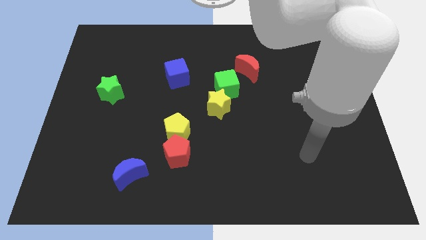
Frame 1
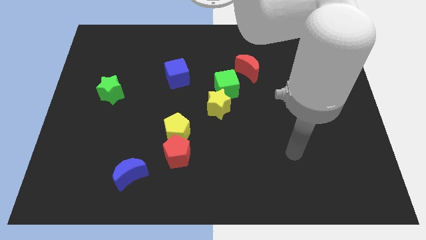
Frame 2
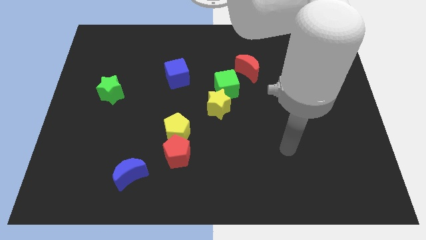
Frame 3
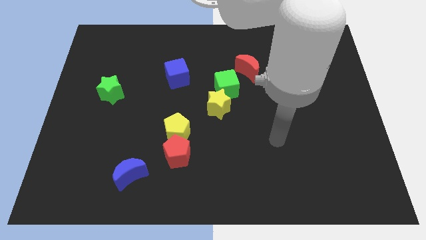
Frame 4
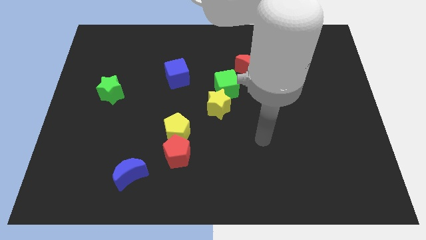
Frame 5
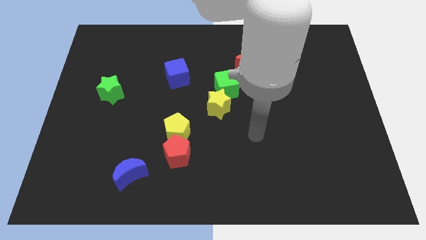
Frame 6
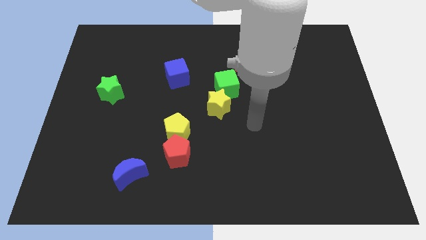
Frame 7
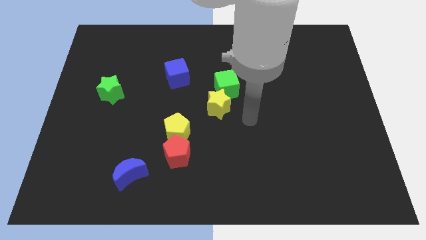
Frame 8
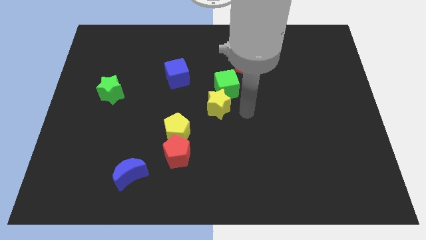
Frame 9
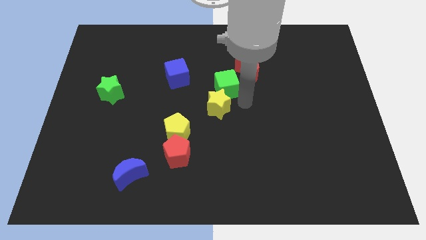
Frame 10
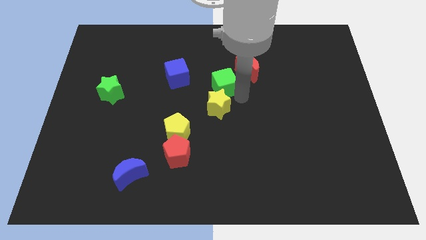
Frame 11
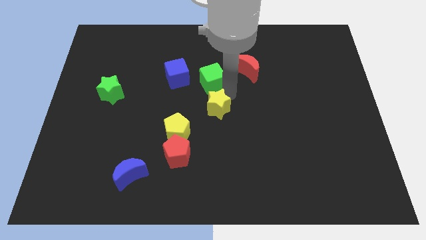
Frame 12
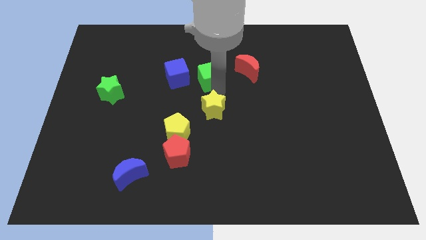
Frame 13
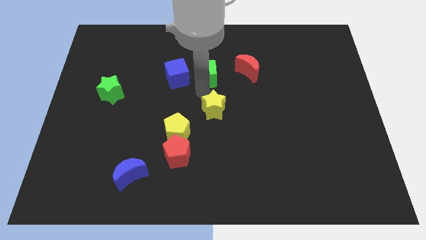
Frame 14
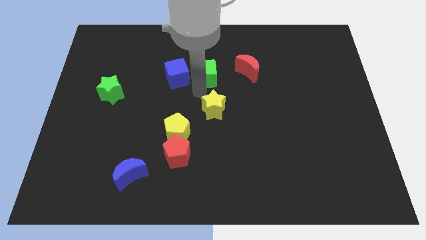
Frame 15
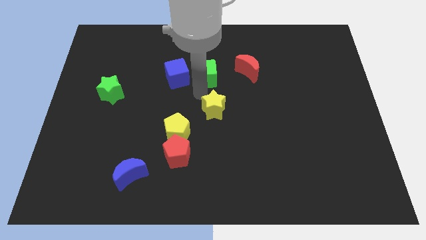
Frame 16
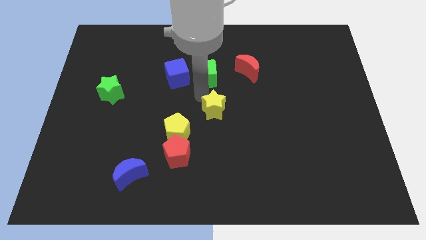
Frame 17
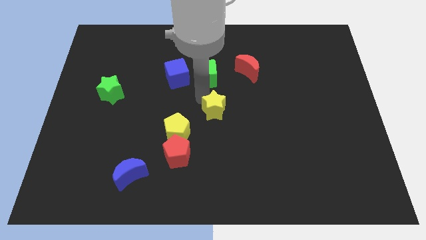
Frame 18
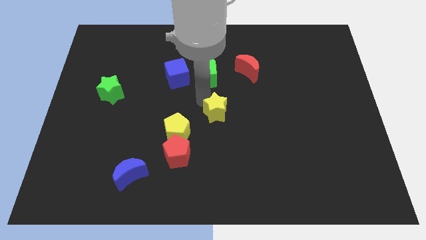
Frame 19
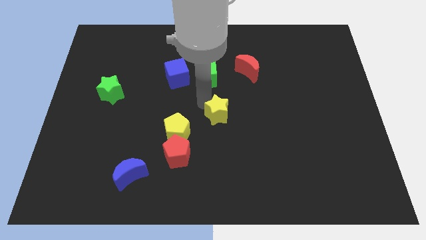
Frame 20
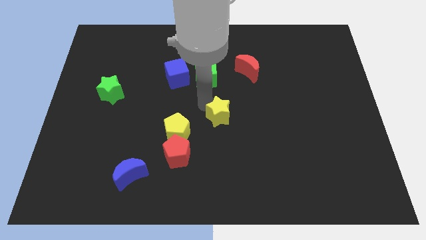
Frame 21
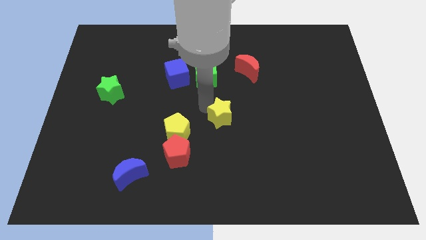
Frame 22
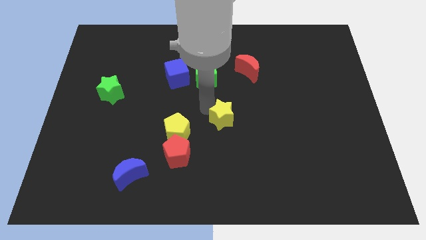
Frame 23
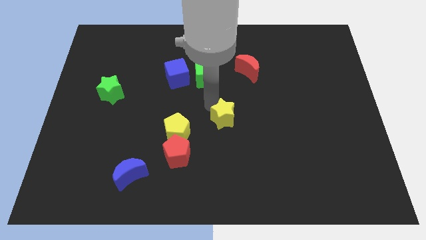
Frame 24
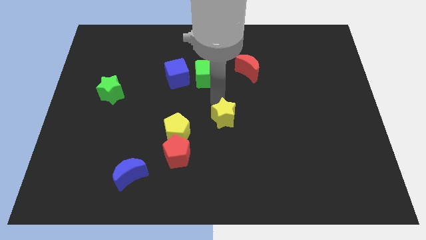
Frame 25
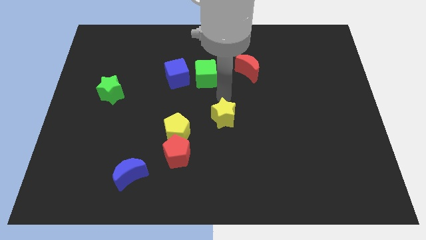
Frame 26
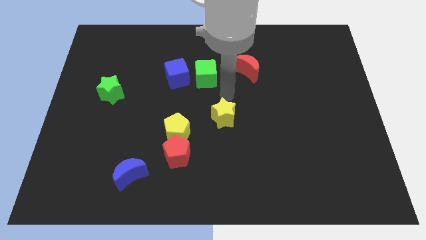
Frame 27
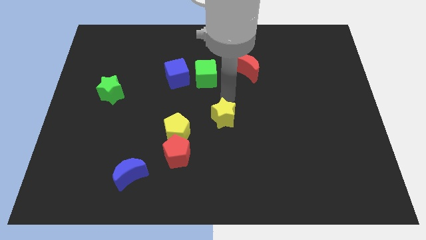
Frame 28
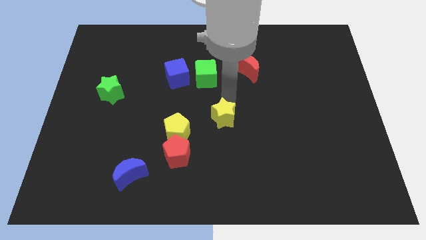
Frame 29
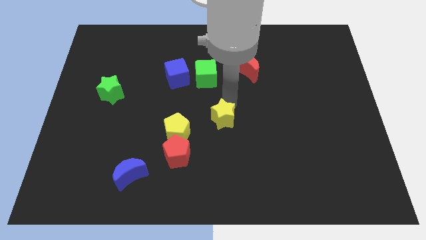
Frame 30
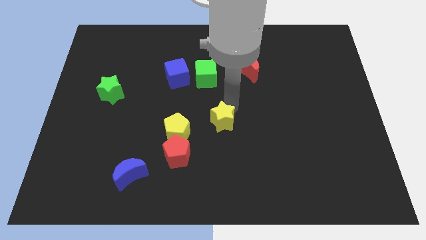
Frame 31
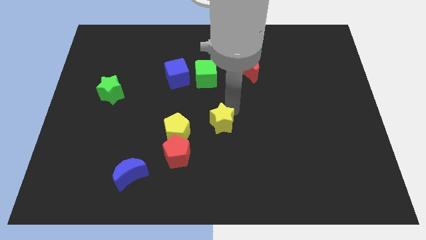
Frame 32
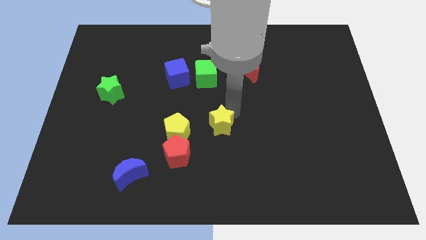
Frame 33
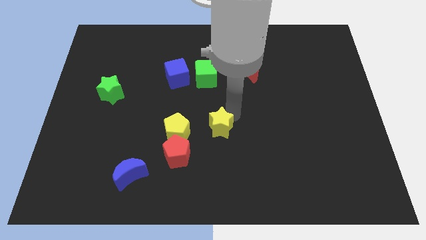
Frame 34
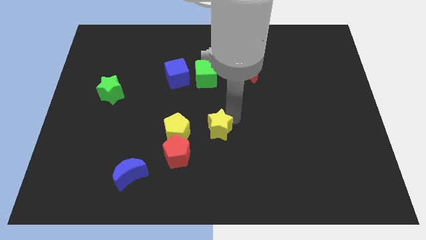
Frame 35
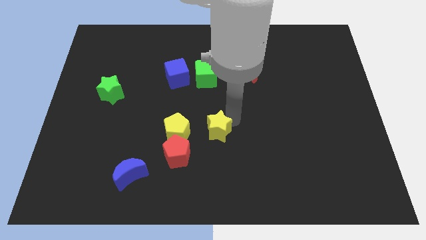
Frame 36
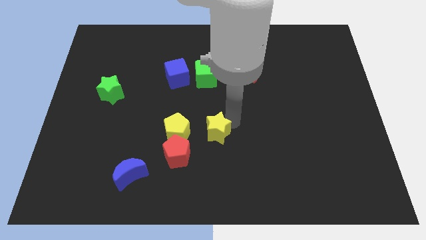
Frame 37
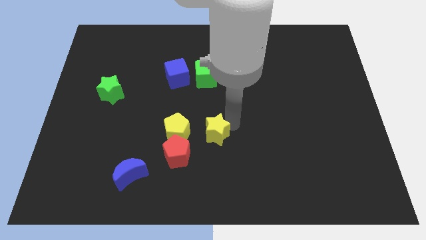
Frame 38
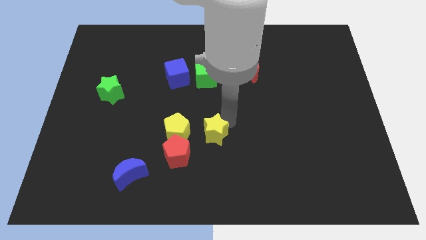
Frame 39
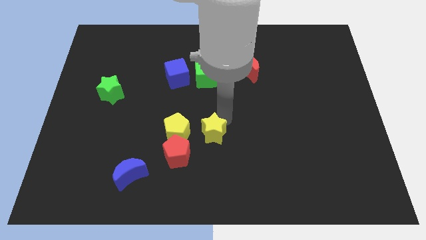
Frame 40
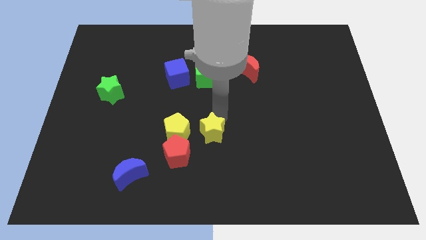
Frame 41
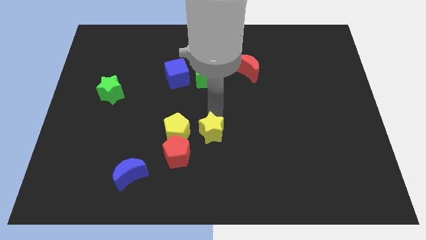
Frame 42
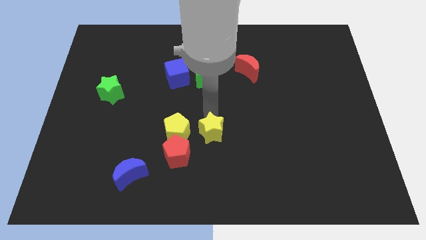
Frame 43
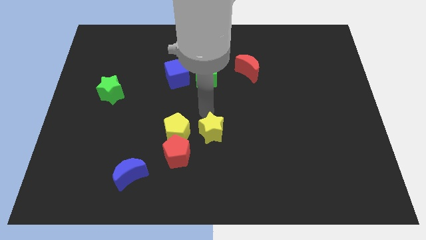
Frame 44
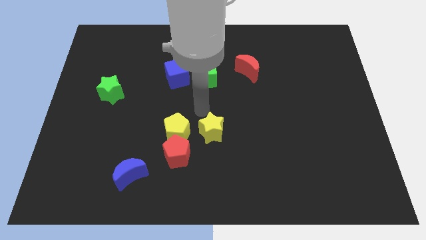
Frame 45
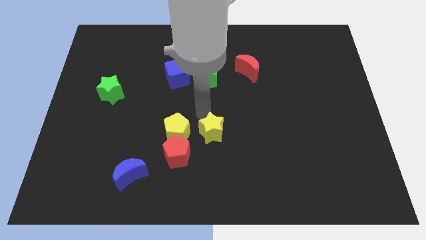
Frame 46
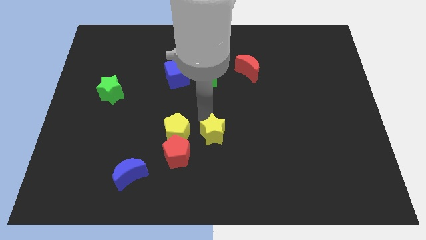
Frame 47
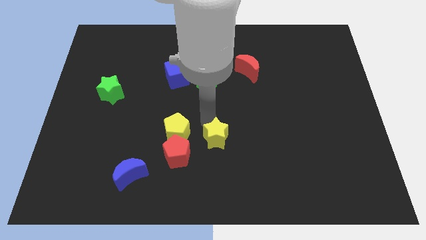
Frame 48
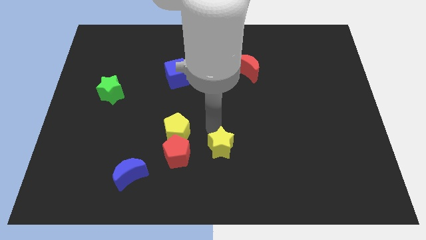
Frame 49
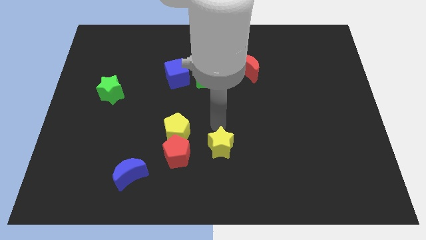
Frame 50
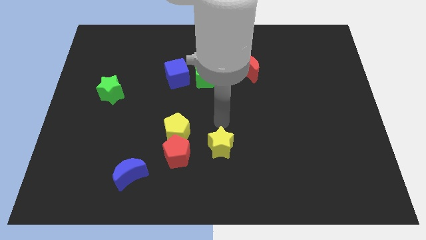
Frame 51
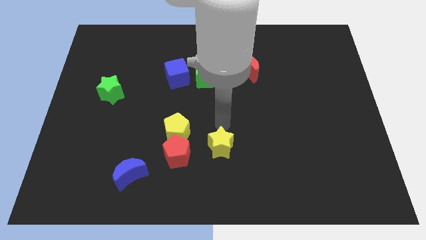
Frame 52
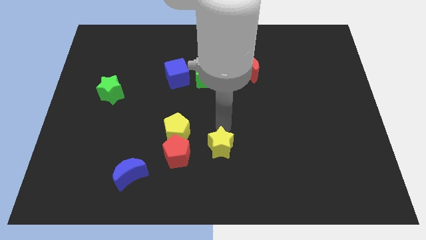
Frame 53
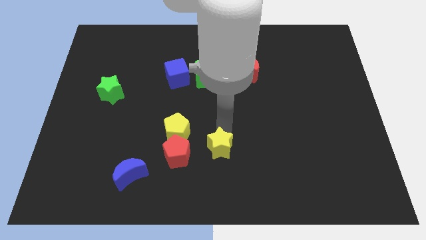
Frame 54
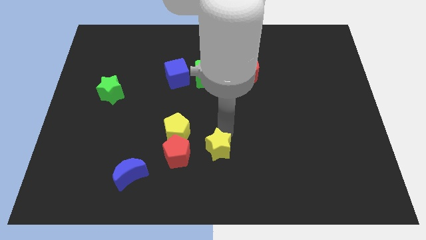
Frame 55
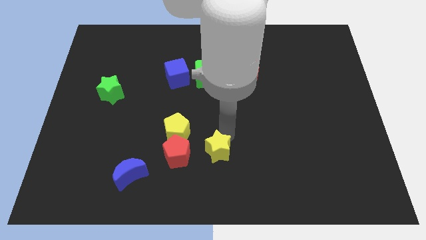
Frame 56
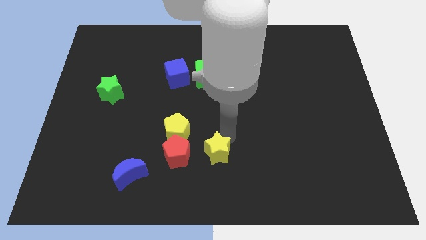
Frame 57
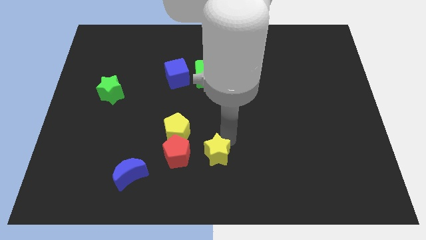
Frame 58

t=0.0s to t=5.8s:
slide the yellow star to the bottom

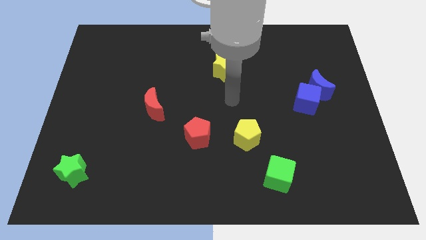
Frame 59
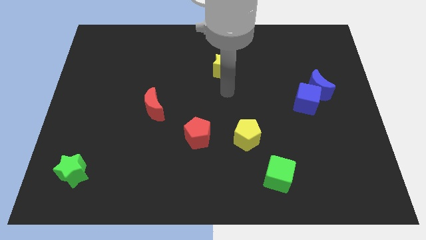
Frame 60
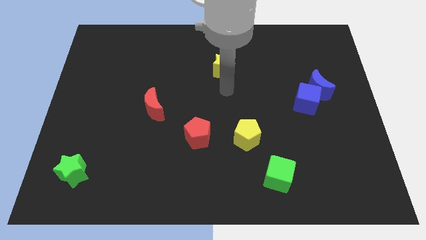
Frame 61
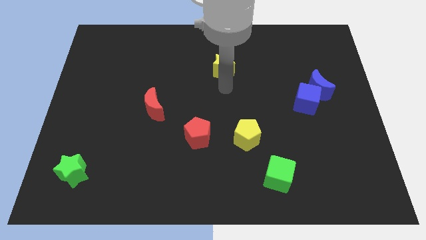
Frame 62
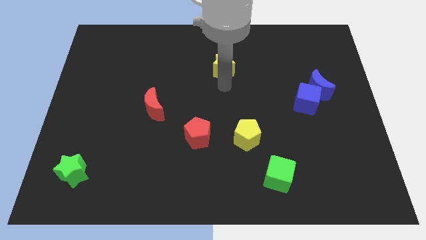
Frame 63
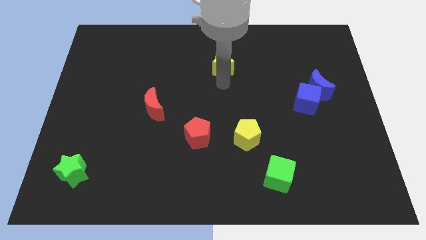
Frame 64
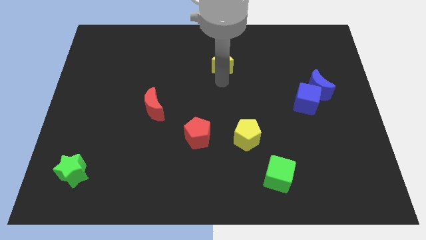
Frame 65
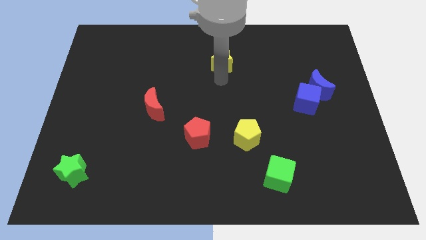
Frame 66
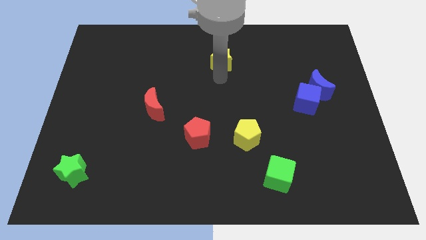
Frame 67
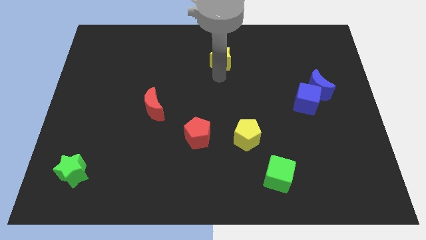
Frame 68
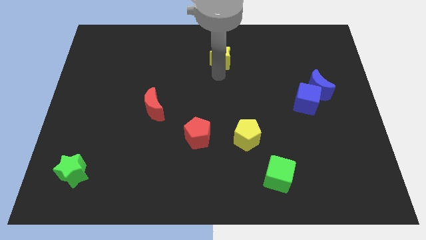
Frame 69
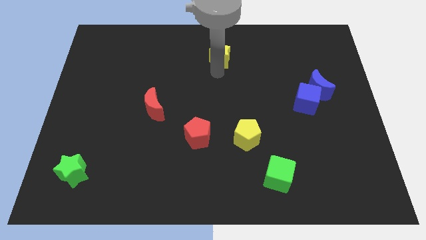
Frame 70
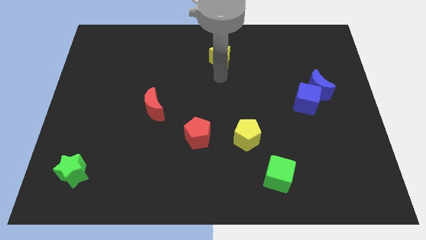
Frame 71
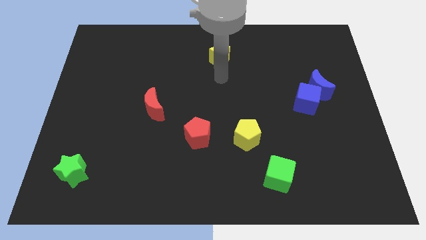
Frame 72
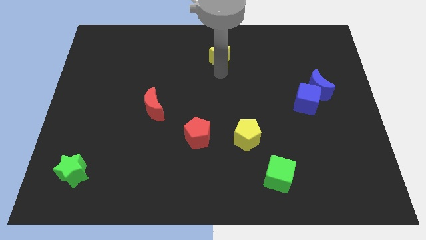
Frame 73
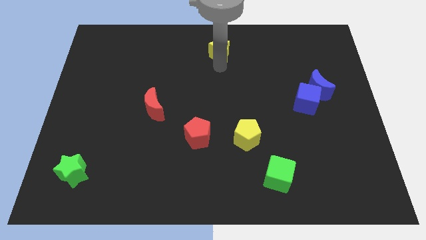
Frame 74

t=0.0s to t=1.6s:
slide the yellow star to the towards your base
